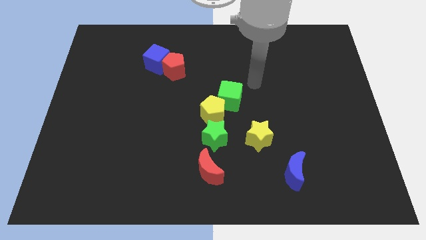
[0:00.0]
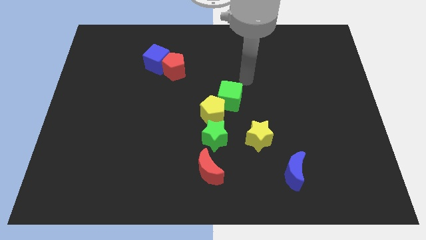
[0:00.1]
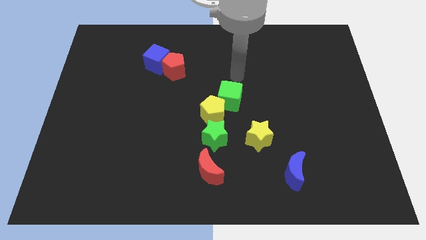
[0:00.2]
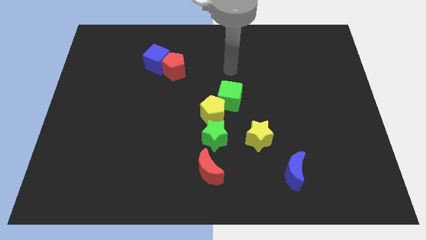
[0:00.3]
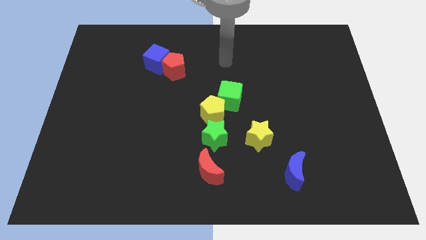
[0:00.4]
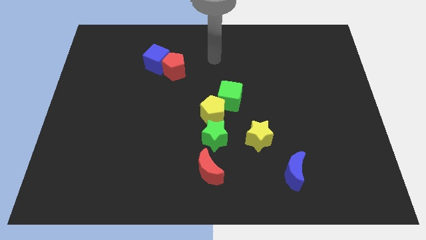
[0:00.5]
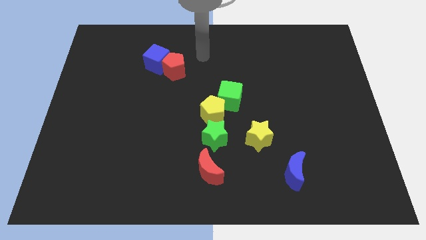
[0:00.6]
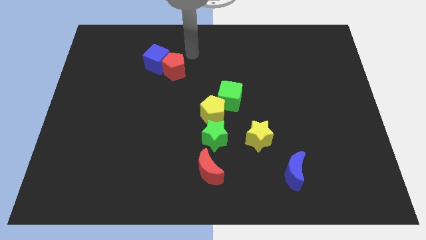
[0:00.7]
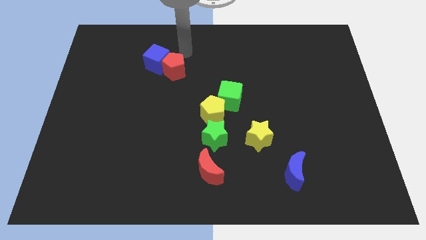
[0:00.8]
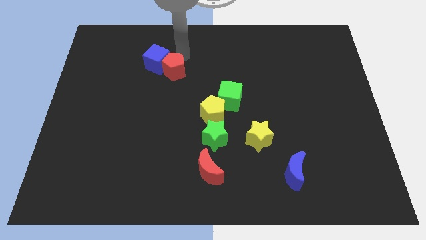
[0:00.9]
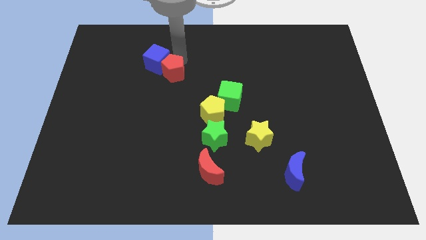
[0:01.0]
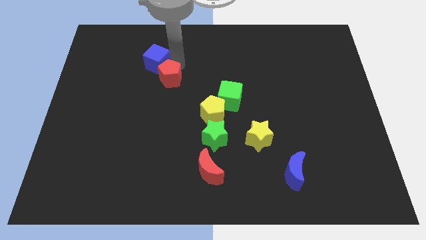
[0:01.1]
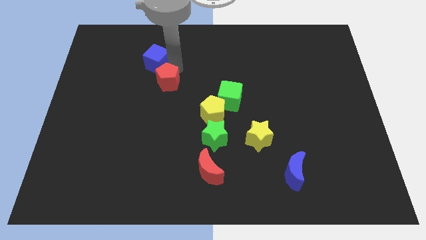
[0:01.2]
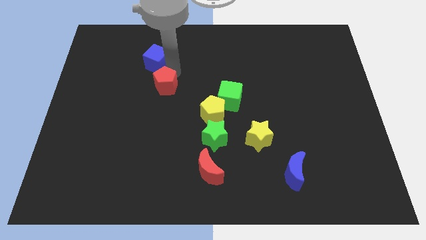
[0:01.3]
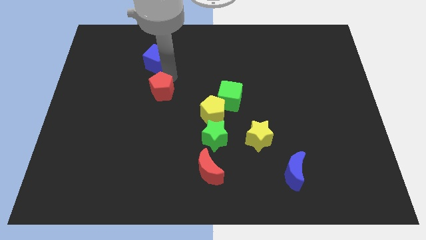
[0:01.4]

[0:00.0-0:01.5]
slightly move the red pentagon downwards

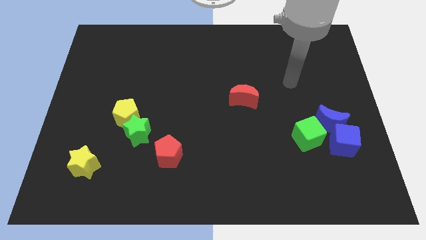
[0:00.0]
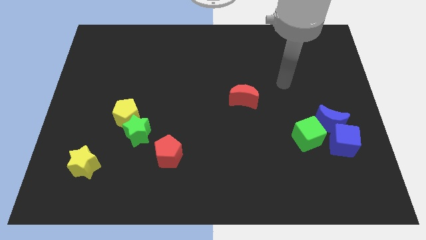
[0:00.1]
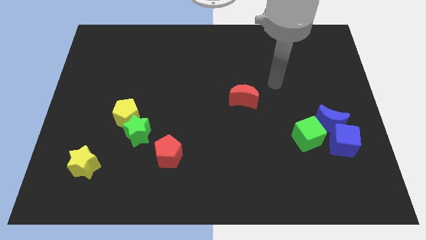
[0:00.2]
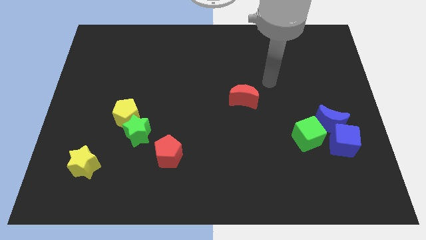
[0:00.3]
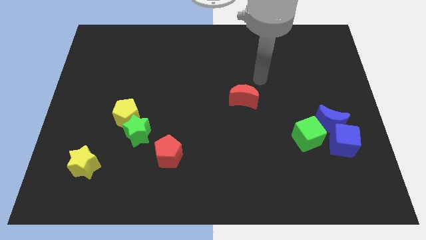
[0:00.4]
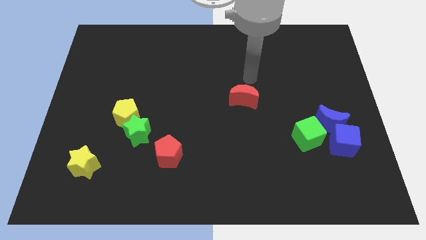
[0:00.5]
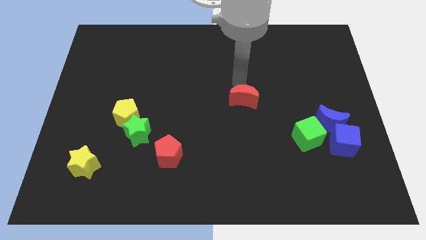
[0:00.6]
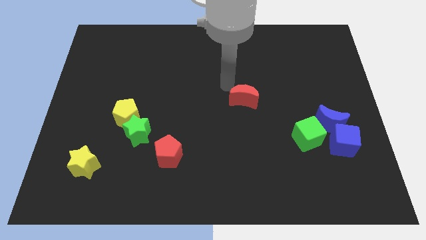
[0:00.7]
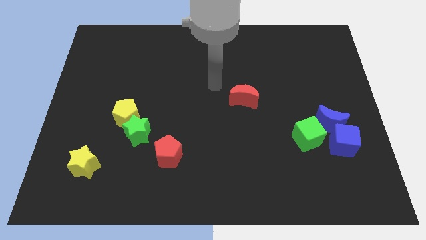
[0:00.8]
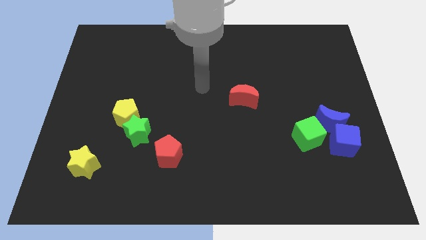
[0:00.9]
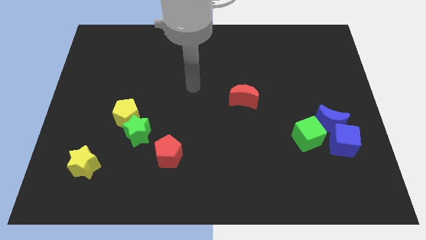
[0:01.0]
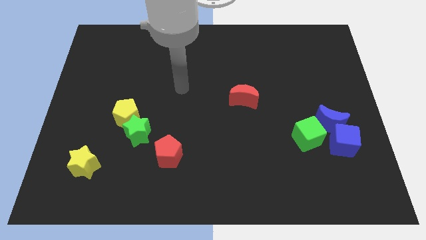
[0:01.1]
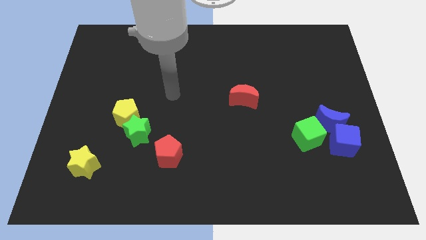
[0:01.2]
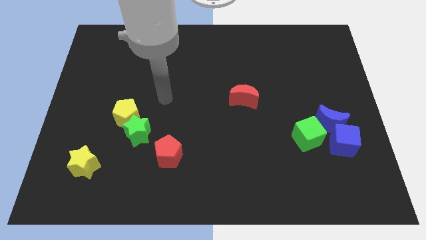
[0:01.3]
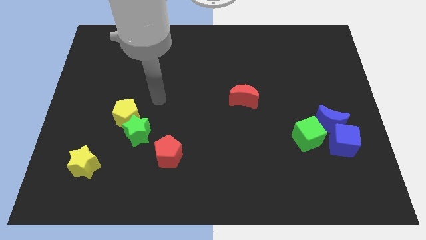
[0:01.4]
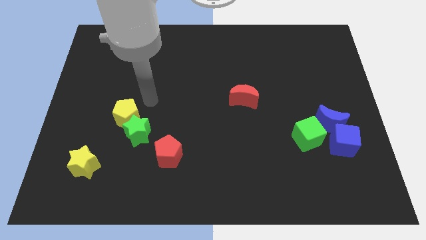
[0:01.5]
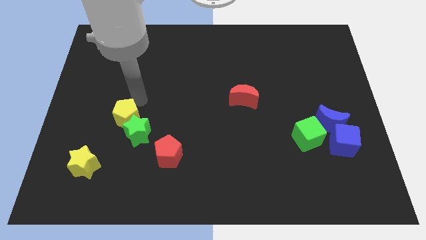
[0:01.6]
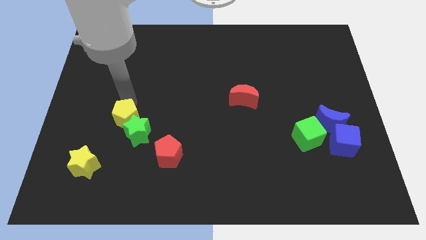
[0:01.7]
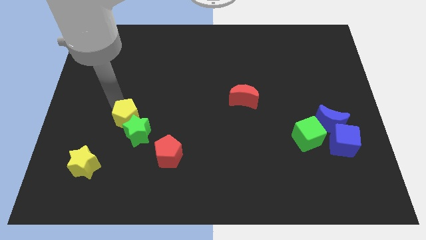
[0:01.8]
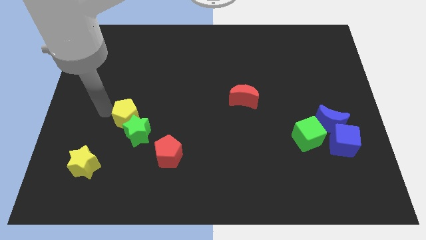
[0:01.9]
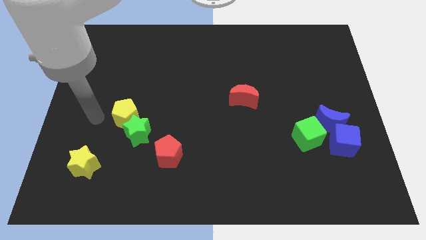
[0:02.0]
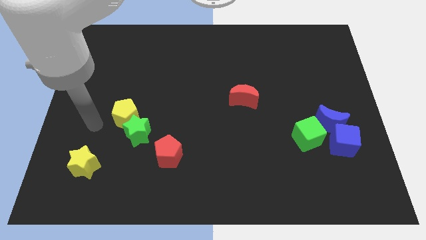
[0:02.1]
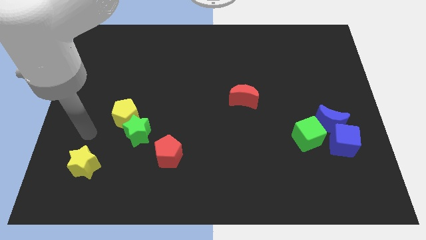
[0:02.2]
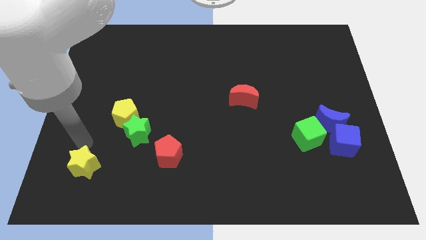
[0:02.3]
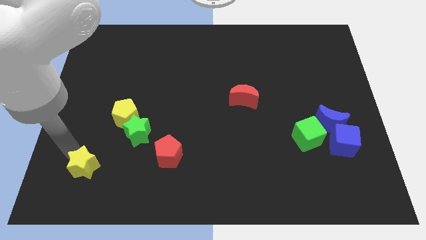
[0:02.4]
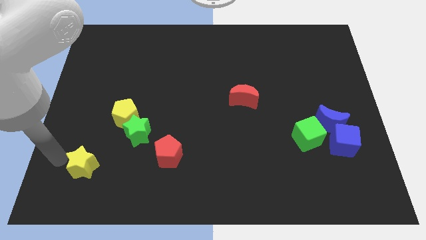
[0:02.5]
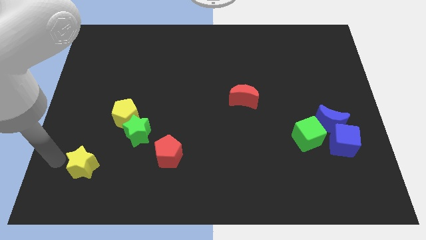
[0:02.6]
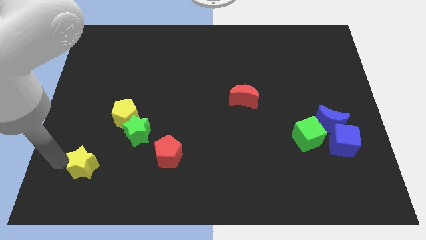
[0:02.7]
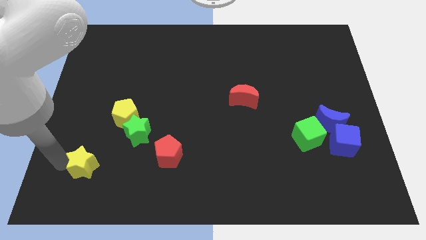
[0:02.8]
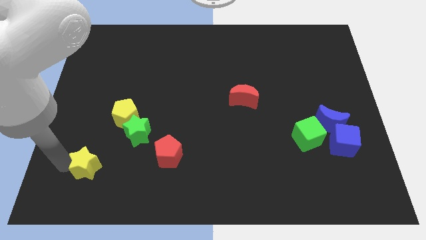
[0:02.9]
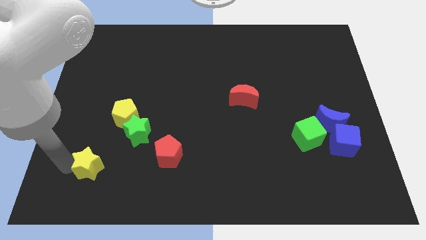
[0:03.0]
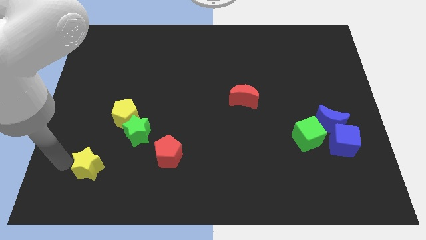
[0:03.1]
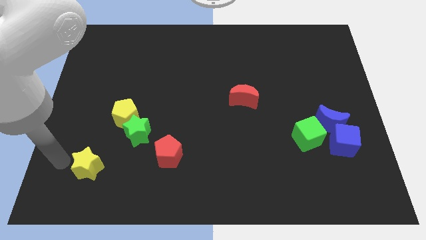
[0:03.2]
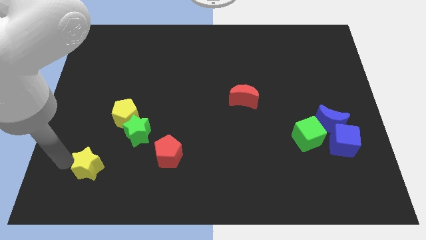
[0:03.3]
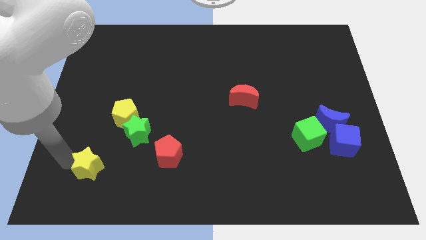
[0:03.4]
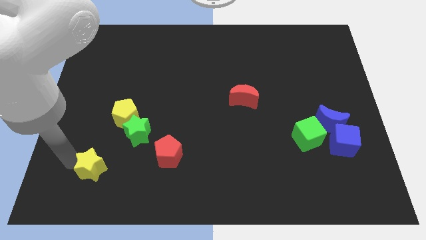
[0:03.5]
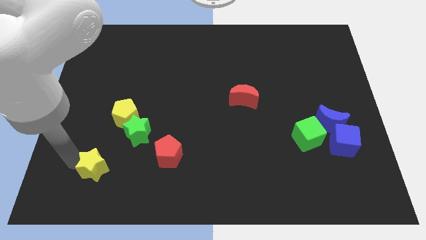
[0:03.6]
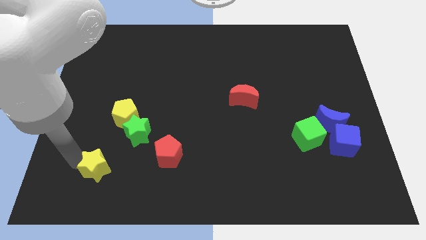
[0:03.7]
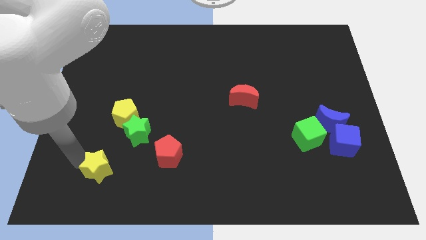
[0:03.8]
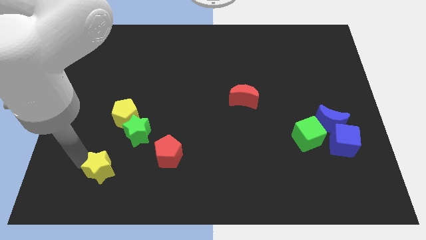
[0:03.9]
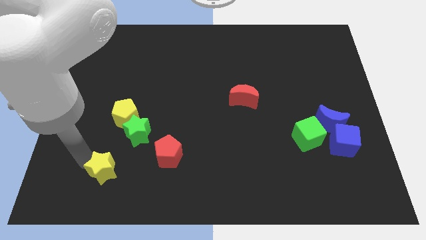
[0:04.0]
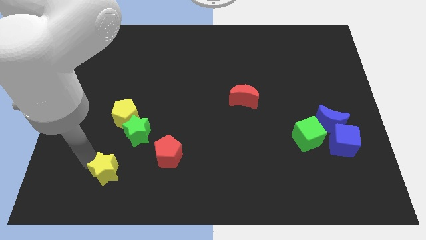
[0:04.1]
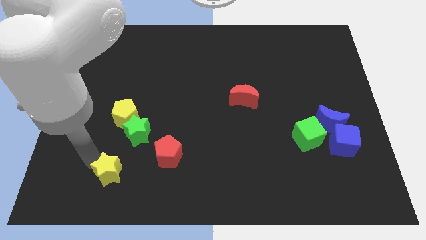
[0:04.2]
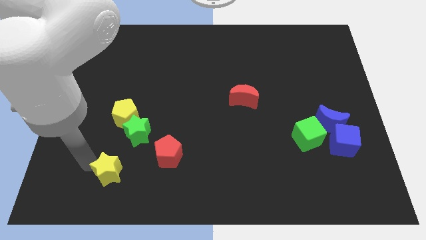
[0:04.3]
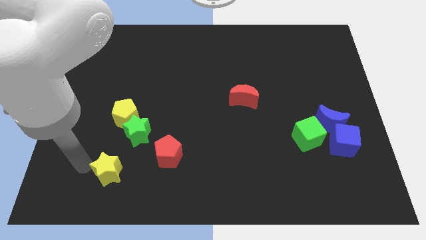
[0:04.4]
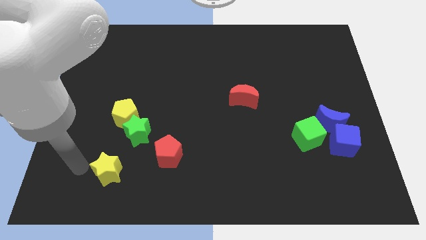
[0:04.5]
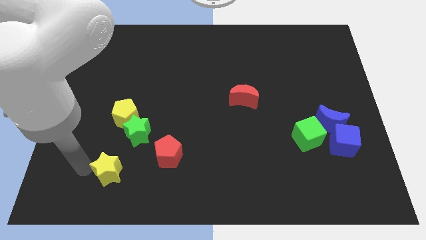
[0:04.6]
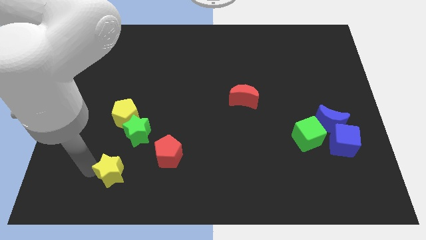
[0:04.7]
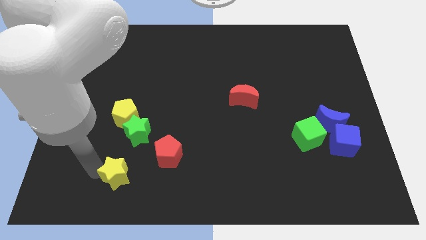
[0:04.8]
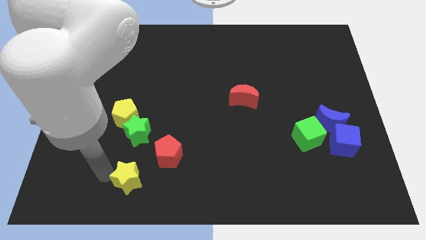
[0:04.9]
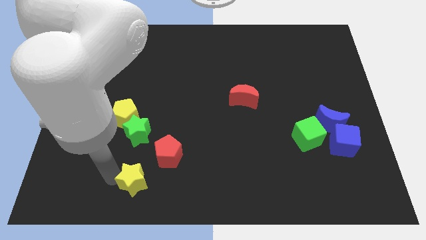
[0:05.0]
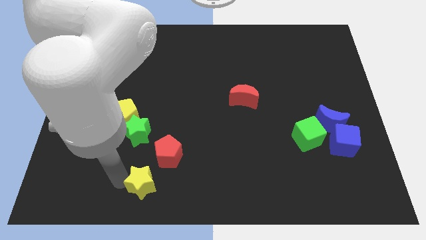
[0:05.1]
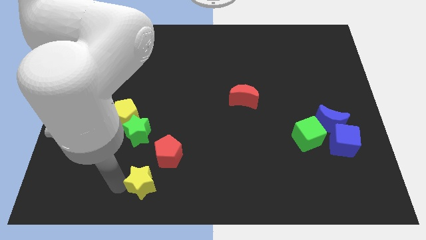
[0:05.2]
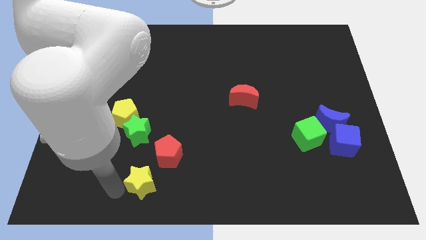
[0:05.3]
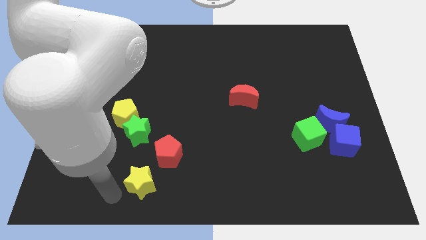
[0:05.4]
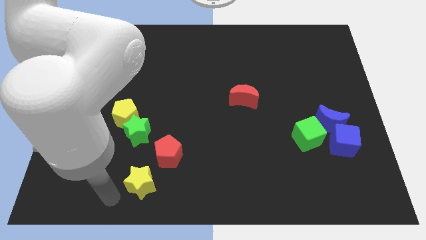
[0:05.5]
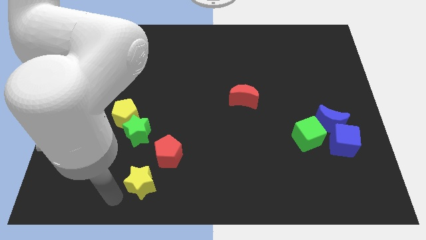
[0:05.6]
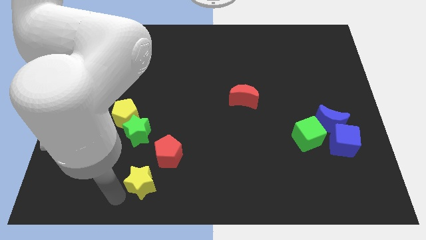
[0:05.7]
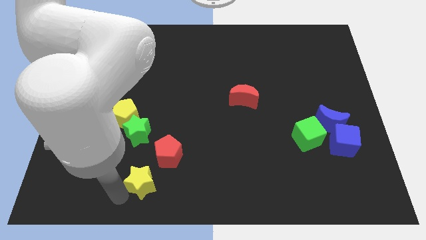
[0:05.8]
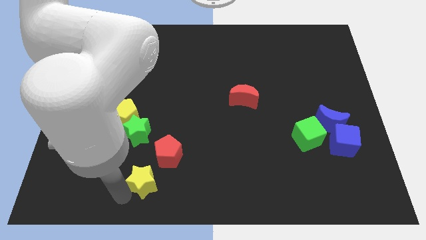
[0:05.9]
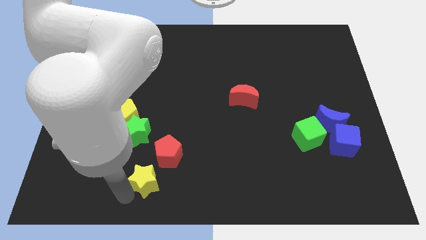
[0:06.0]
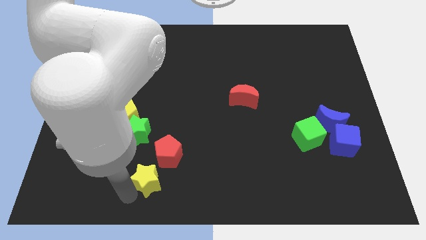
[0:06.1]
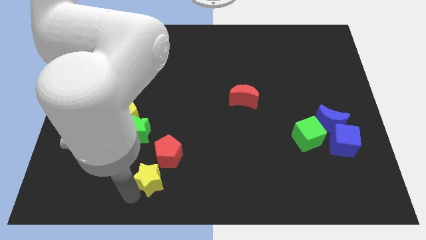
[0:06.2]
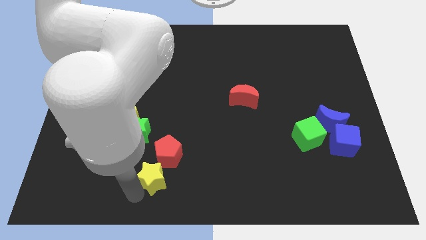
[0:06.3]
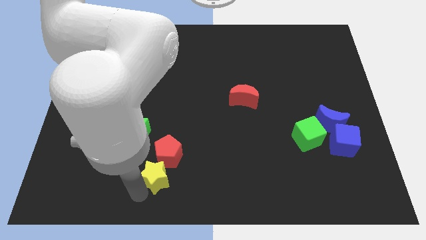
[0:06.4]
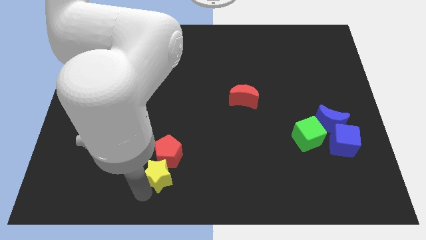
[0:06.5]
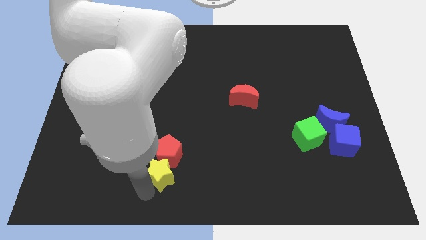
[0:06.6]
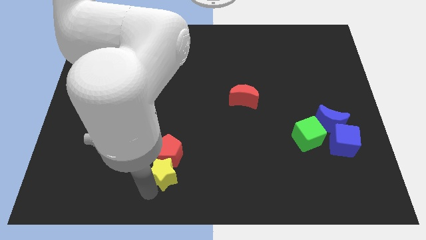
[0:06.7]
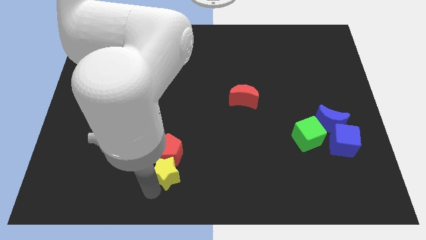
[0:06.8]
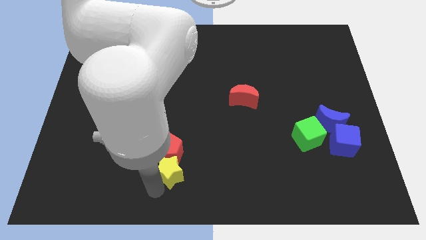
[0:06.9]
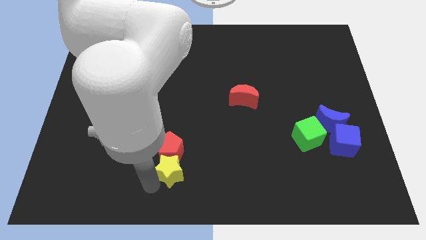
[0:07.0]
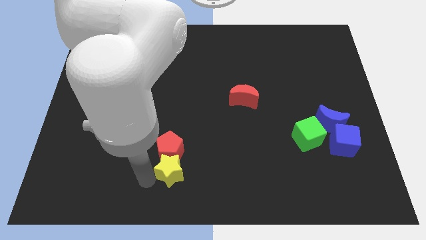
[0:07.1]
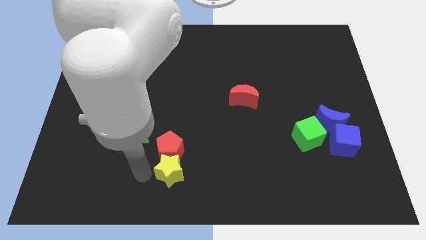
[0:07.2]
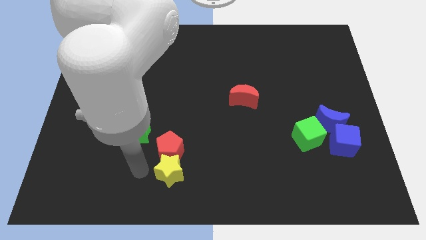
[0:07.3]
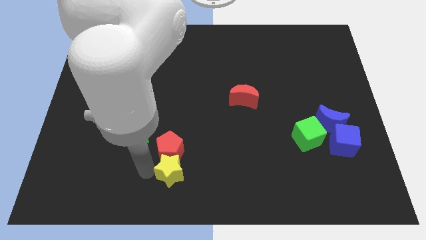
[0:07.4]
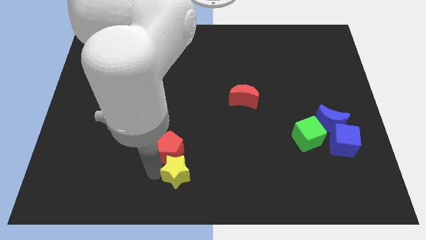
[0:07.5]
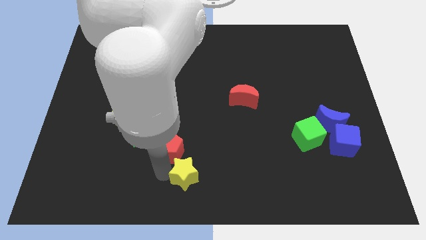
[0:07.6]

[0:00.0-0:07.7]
slide the yellow star right
